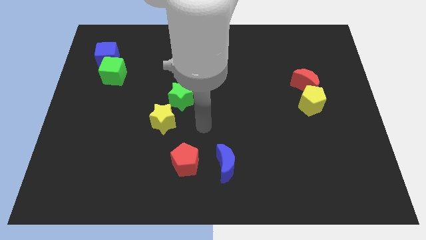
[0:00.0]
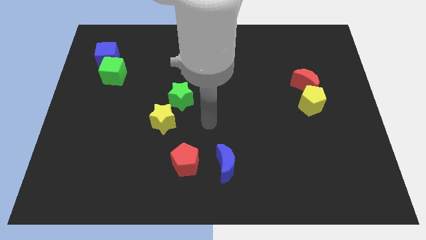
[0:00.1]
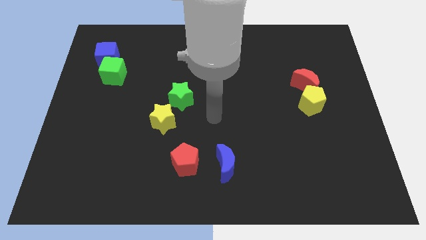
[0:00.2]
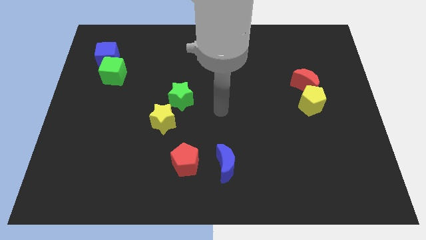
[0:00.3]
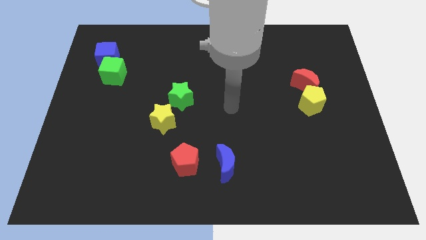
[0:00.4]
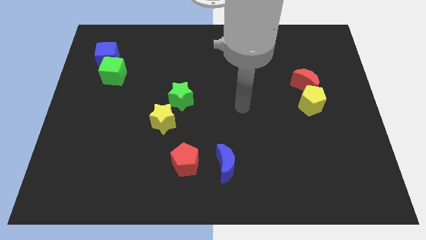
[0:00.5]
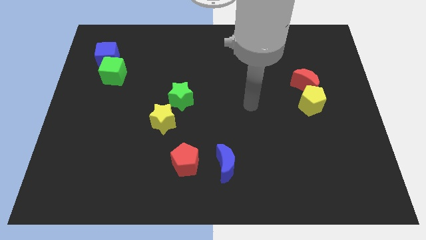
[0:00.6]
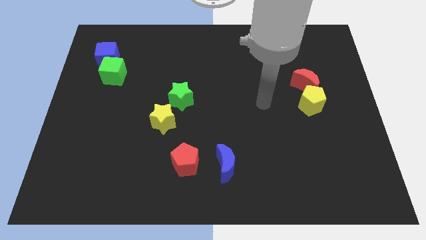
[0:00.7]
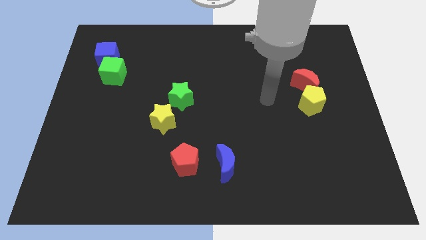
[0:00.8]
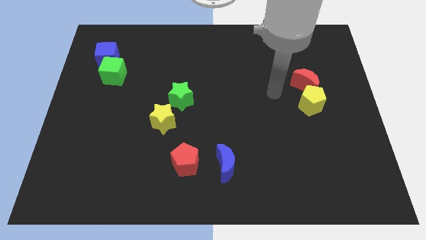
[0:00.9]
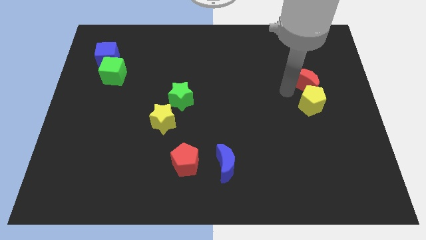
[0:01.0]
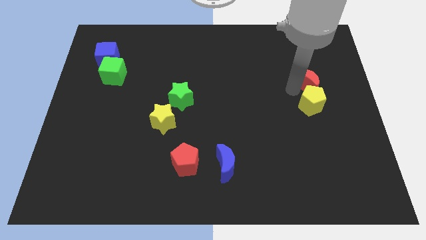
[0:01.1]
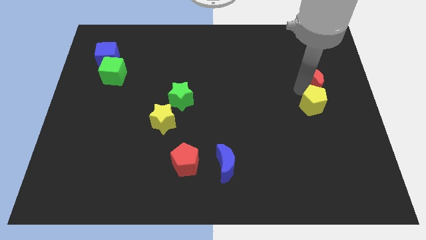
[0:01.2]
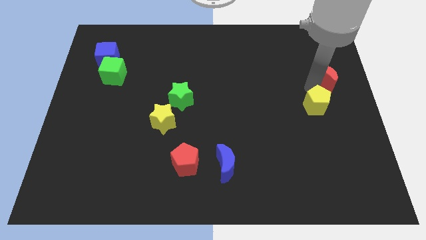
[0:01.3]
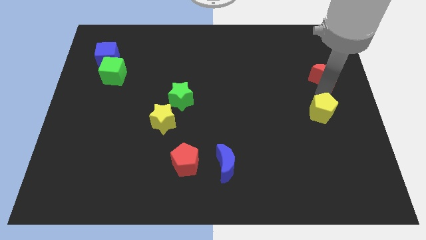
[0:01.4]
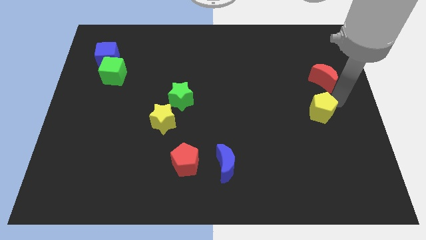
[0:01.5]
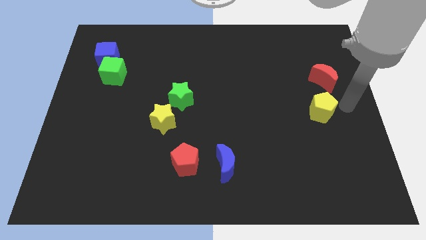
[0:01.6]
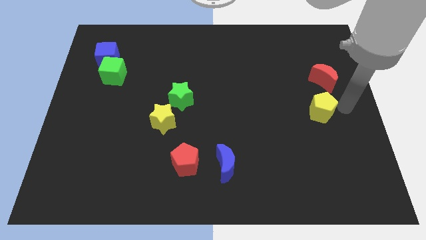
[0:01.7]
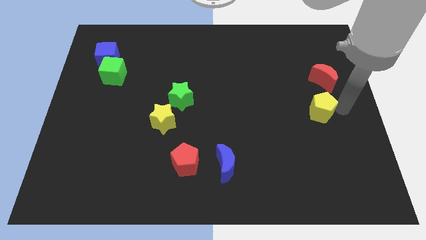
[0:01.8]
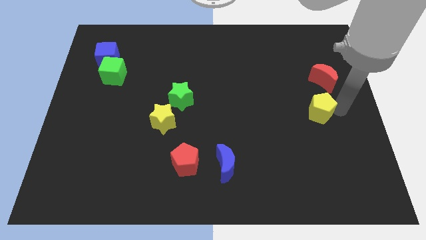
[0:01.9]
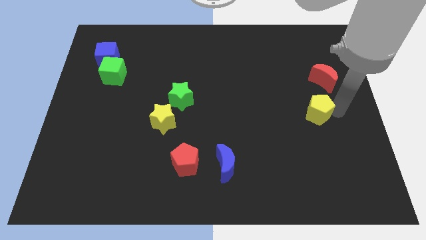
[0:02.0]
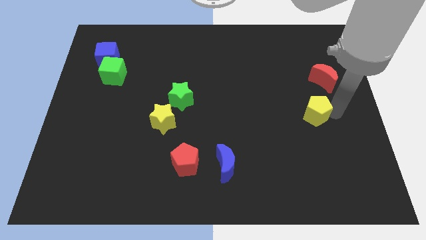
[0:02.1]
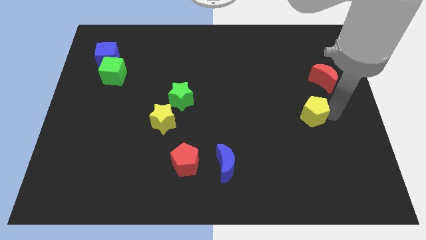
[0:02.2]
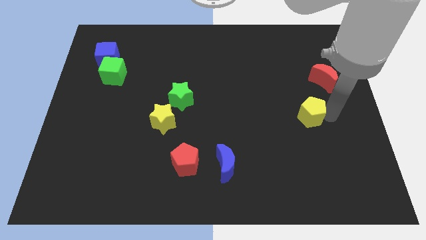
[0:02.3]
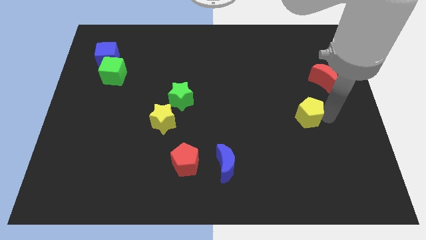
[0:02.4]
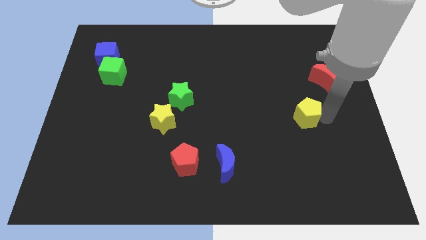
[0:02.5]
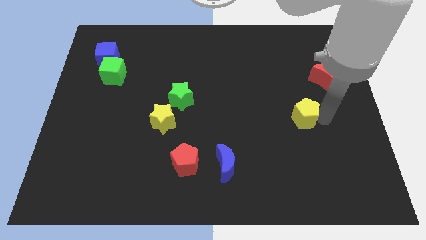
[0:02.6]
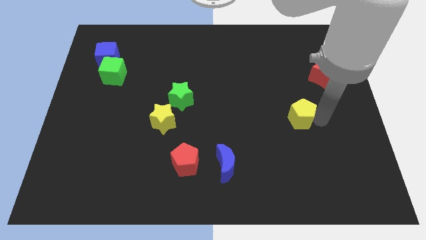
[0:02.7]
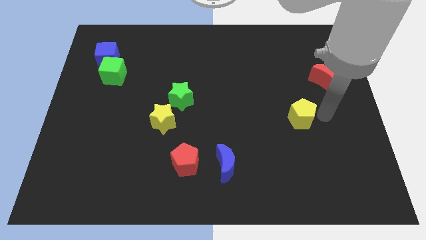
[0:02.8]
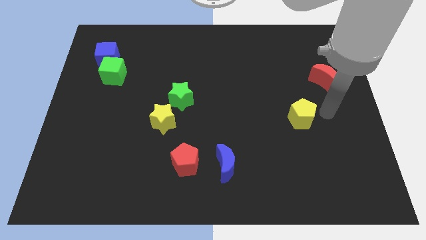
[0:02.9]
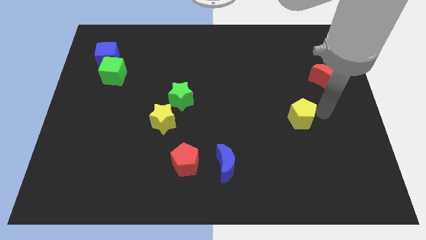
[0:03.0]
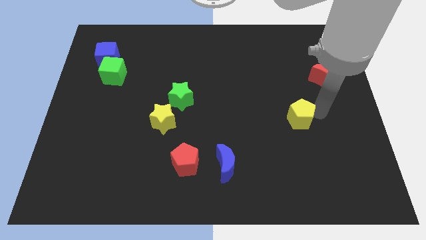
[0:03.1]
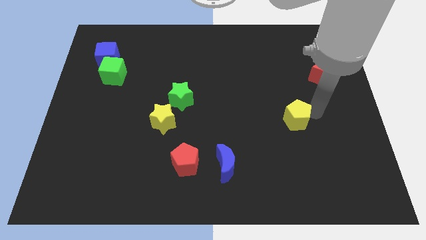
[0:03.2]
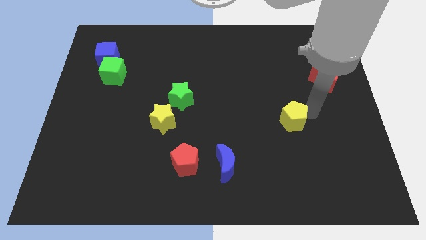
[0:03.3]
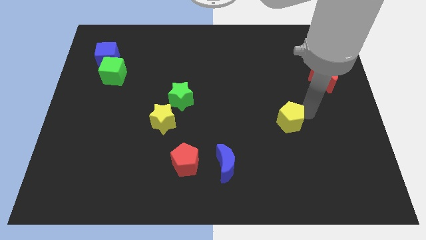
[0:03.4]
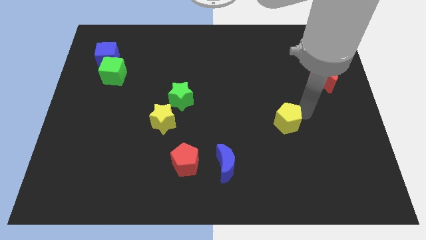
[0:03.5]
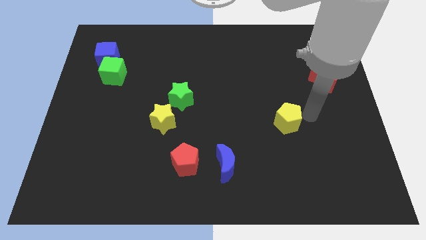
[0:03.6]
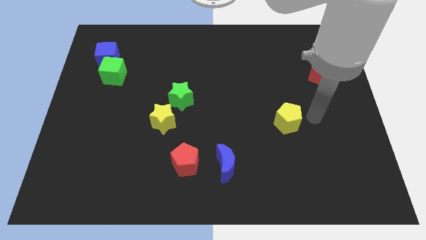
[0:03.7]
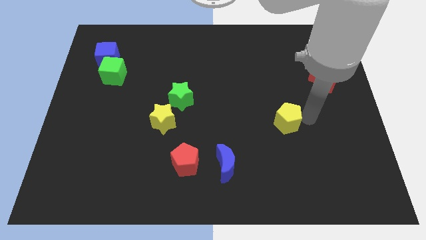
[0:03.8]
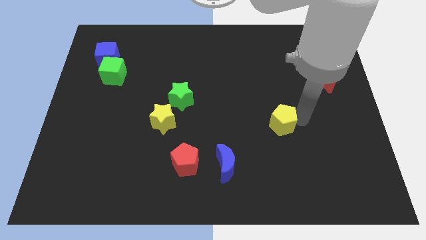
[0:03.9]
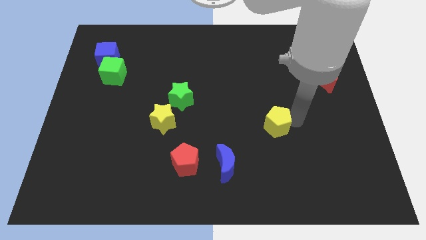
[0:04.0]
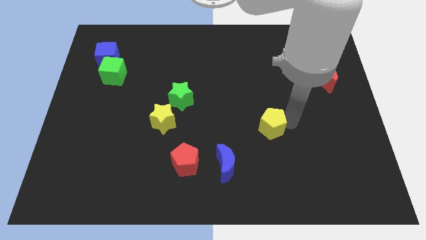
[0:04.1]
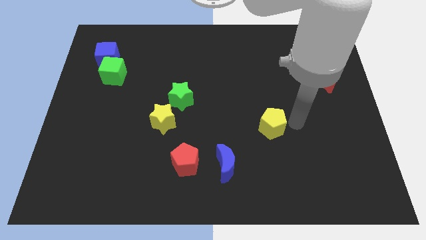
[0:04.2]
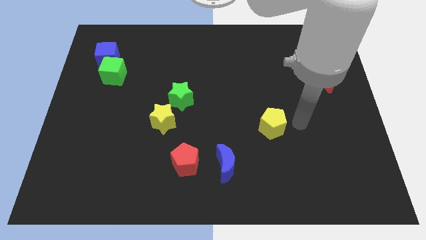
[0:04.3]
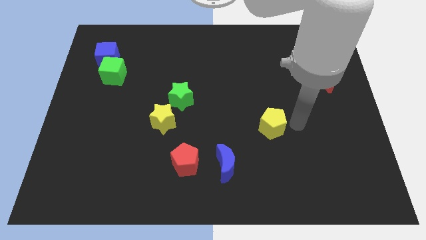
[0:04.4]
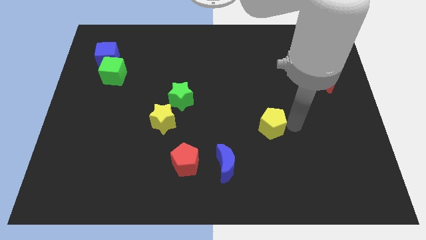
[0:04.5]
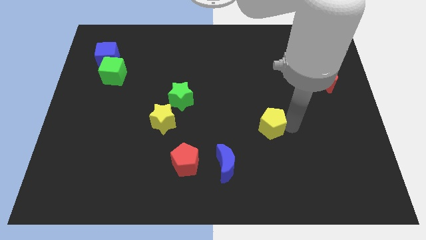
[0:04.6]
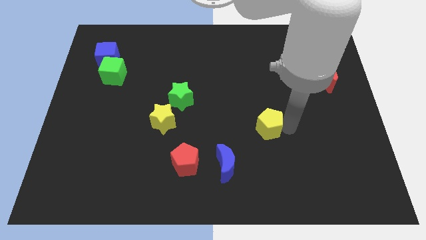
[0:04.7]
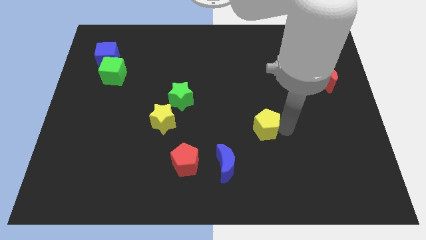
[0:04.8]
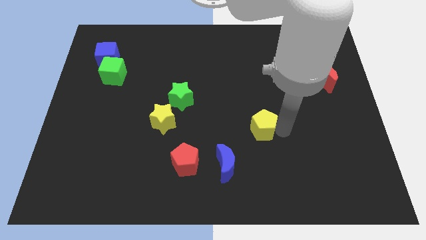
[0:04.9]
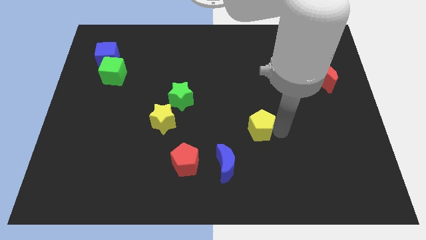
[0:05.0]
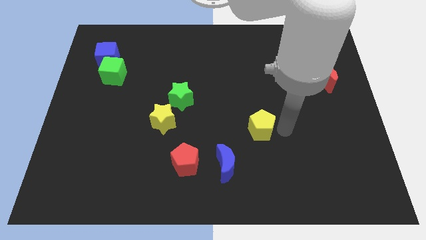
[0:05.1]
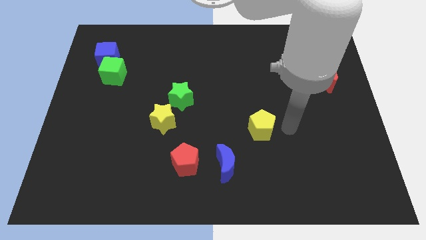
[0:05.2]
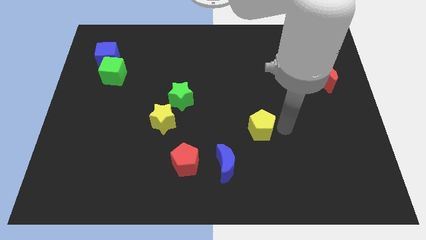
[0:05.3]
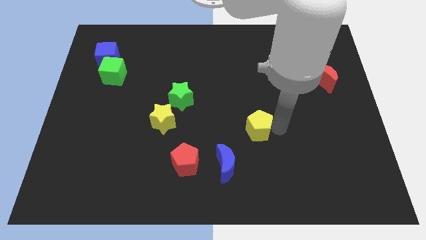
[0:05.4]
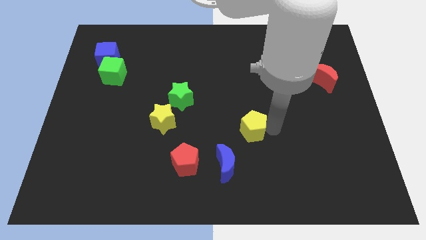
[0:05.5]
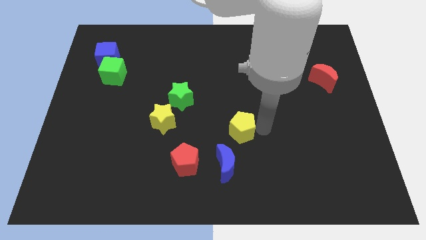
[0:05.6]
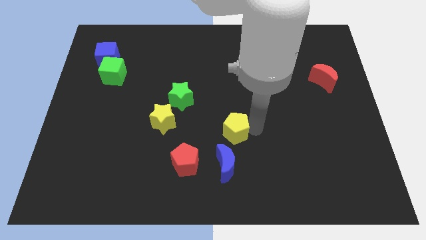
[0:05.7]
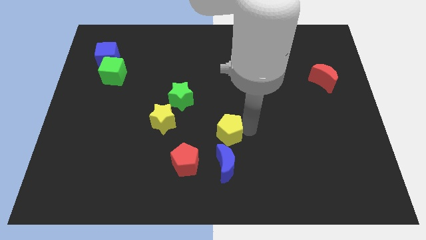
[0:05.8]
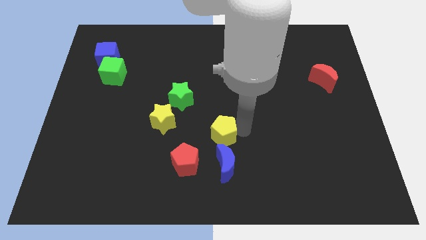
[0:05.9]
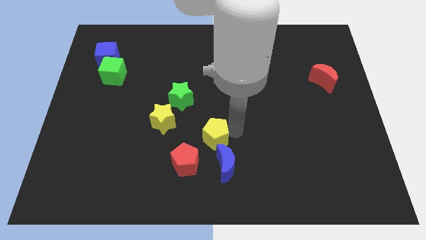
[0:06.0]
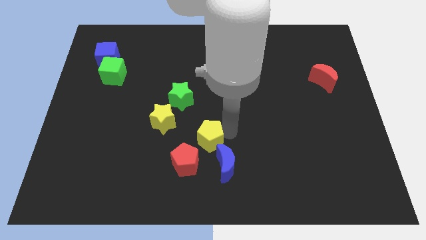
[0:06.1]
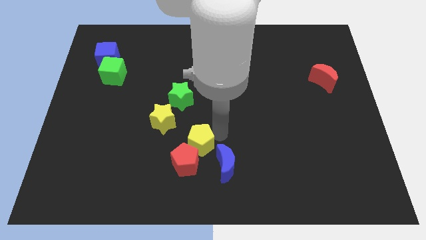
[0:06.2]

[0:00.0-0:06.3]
slide the yellow pentagon close to the red pentagon

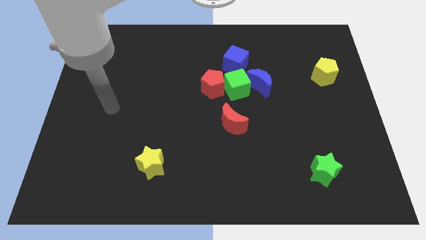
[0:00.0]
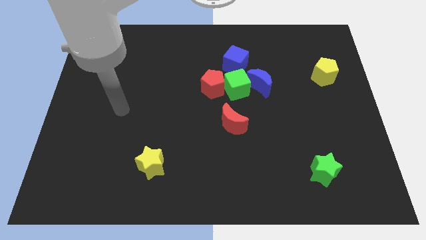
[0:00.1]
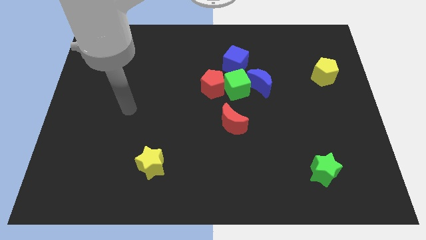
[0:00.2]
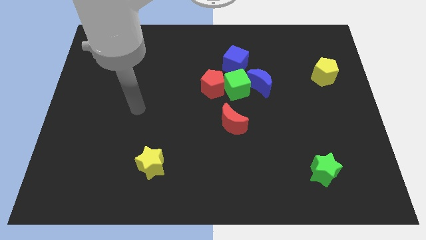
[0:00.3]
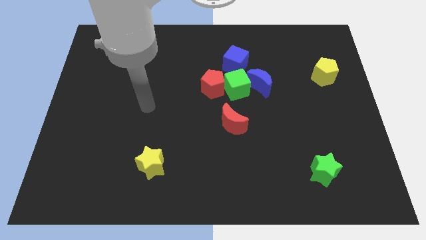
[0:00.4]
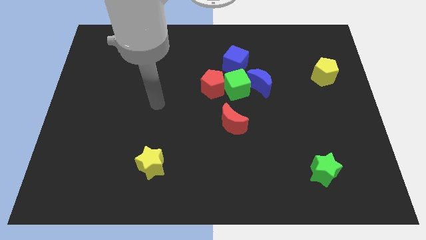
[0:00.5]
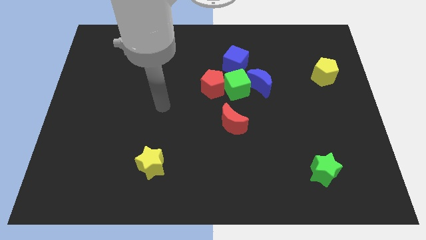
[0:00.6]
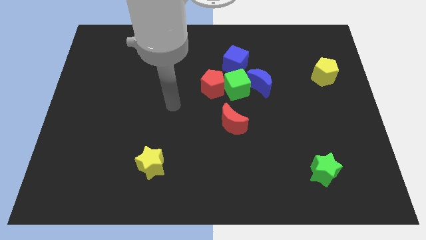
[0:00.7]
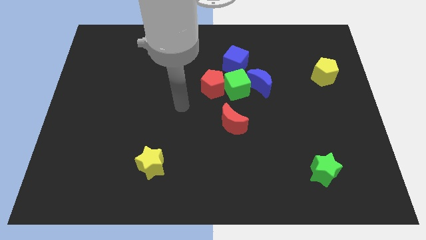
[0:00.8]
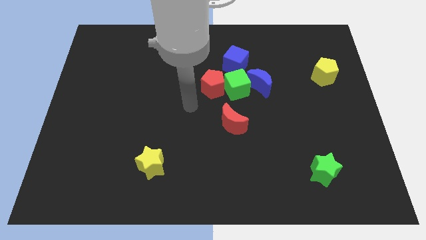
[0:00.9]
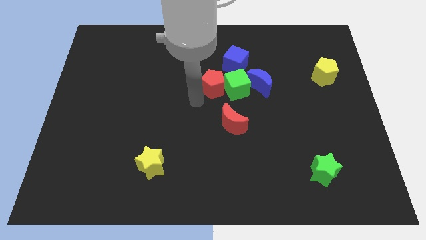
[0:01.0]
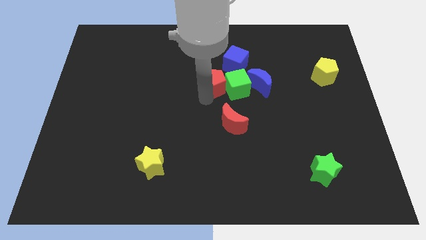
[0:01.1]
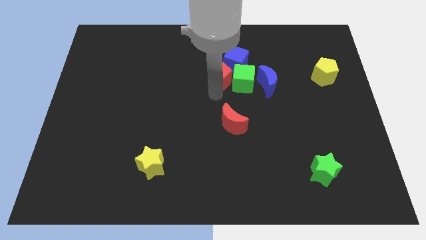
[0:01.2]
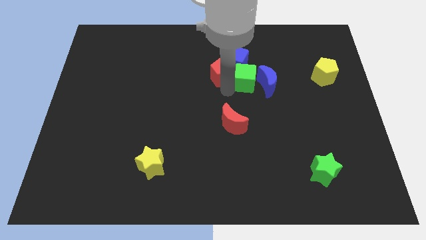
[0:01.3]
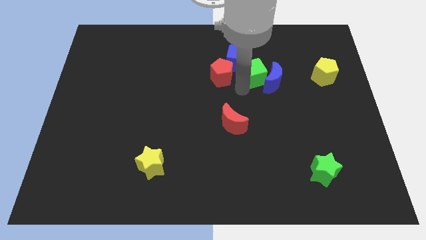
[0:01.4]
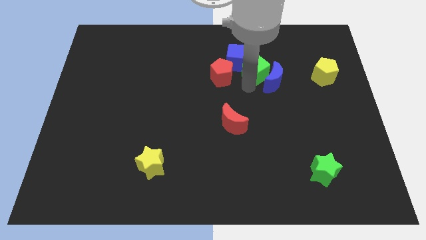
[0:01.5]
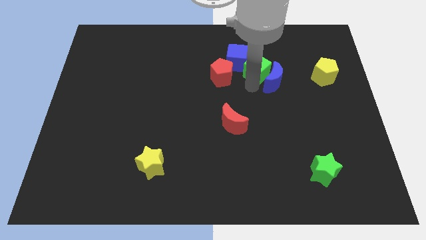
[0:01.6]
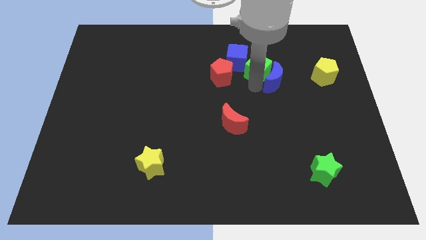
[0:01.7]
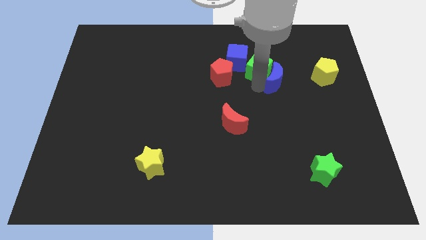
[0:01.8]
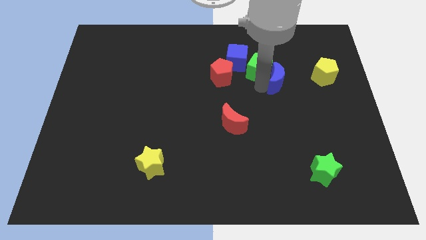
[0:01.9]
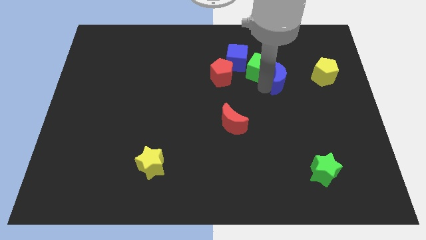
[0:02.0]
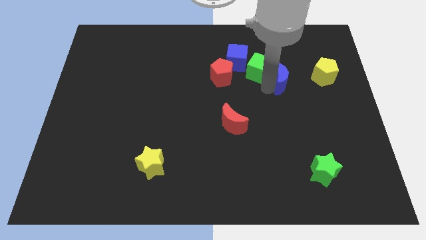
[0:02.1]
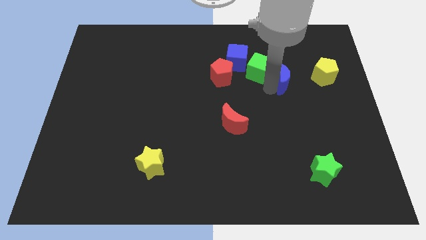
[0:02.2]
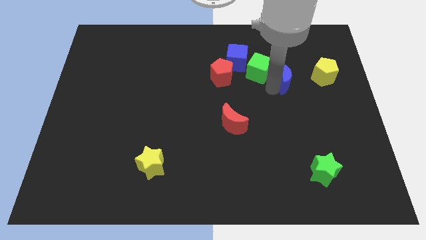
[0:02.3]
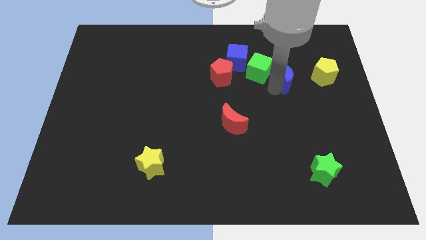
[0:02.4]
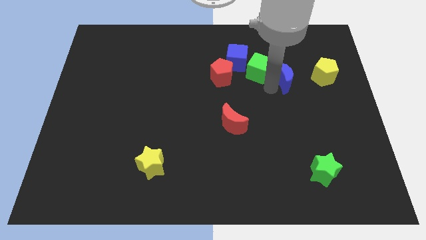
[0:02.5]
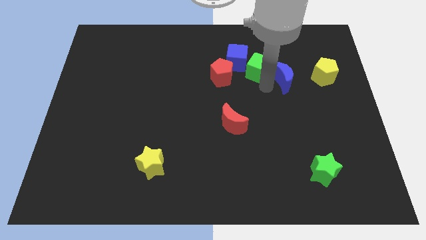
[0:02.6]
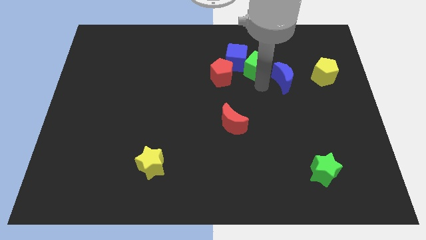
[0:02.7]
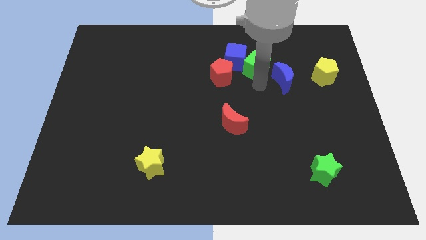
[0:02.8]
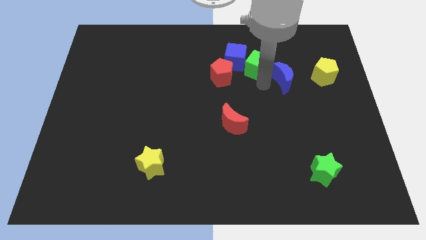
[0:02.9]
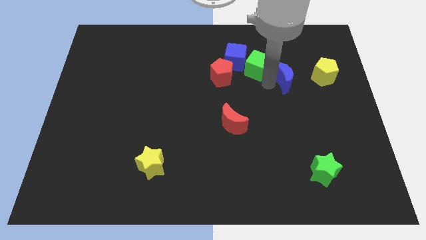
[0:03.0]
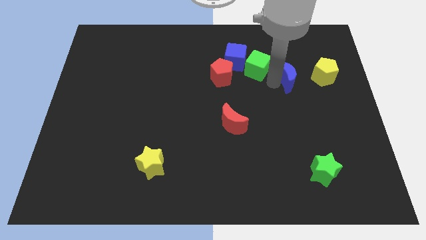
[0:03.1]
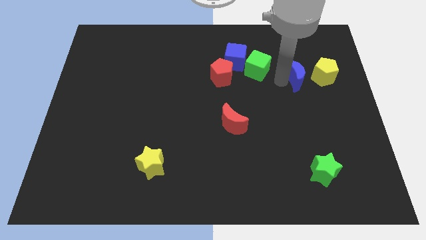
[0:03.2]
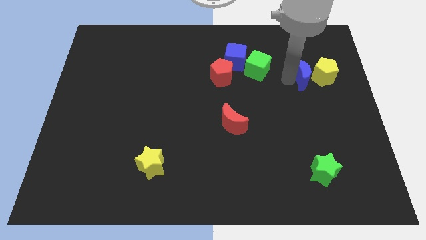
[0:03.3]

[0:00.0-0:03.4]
push the blue moon next to the yellow pentagon
